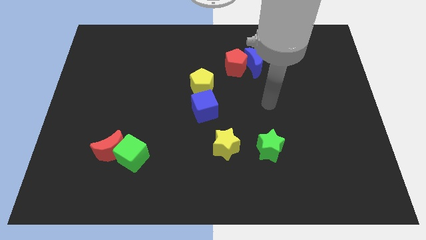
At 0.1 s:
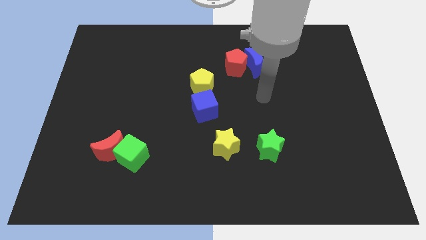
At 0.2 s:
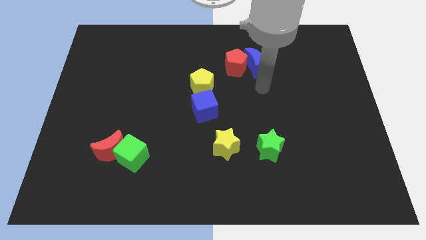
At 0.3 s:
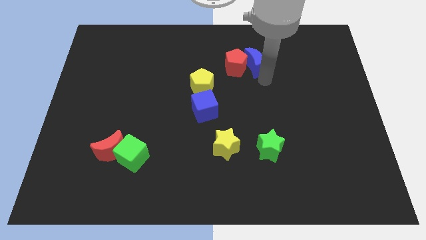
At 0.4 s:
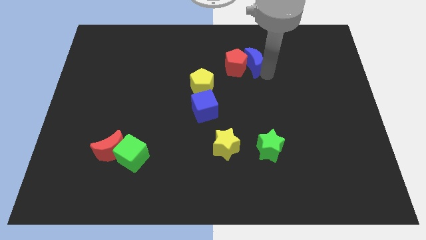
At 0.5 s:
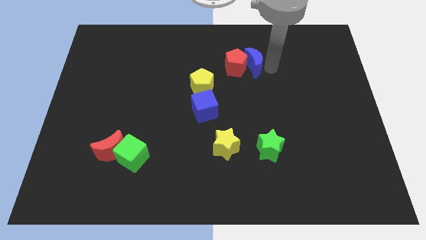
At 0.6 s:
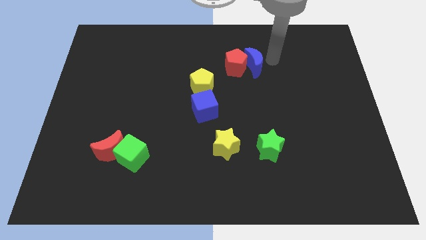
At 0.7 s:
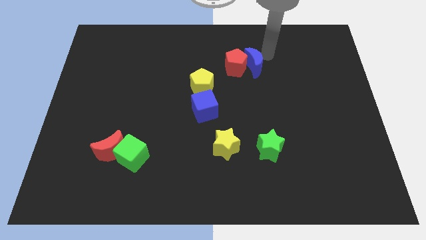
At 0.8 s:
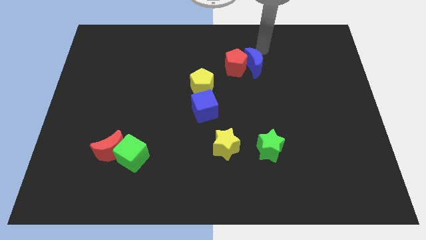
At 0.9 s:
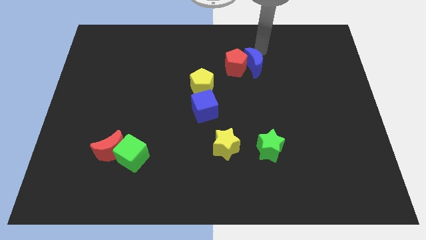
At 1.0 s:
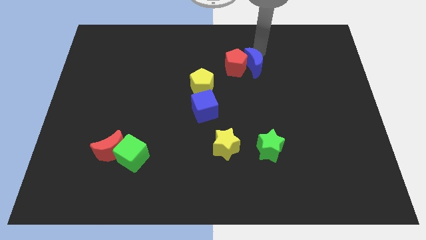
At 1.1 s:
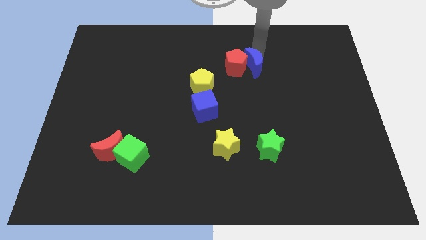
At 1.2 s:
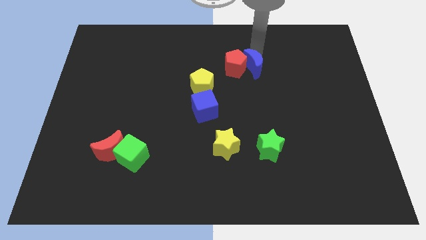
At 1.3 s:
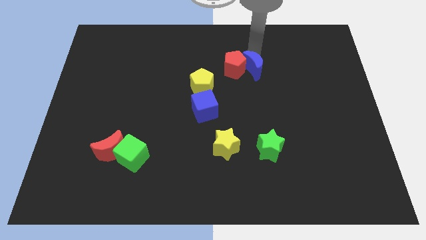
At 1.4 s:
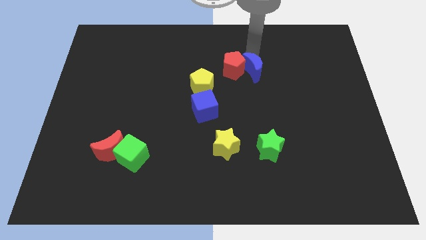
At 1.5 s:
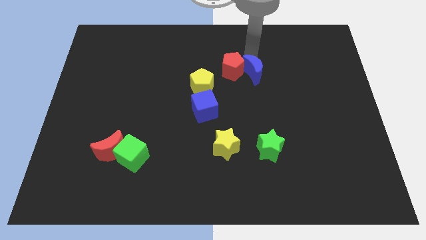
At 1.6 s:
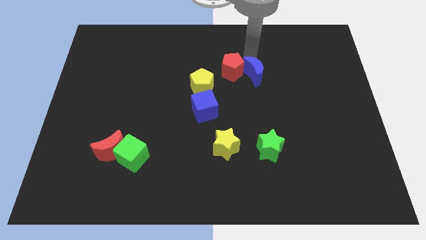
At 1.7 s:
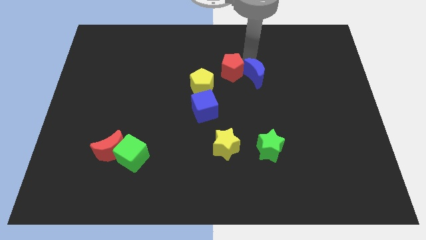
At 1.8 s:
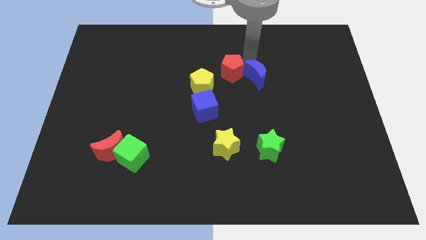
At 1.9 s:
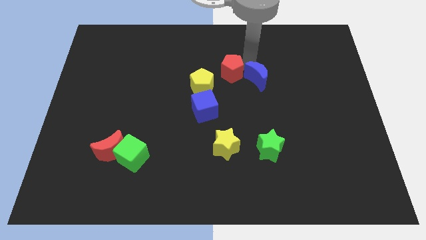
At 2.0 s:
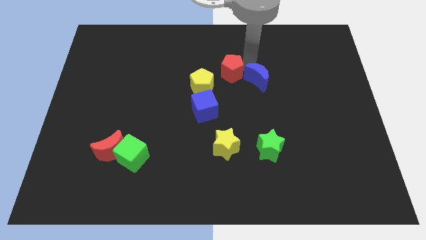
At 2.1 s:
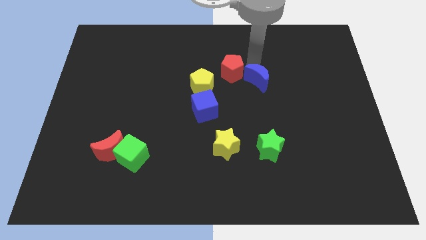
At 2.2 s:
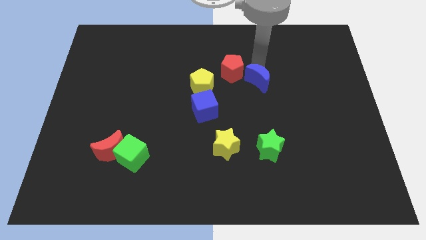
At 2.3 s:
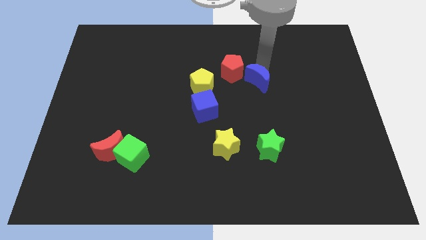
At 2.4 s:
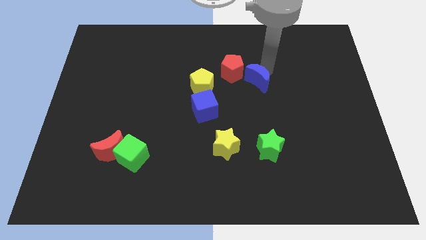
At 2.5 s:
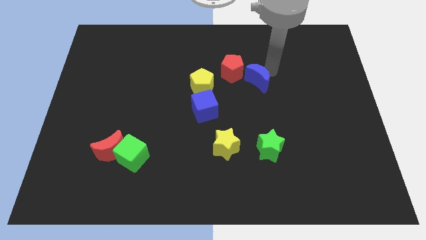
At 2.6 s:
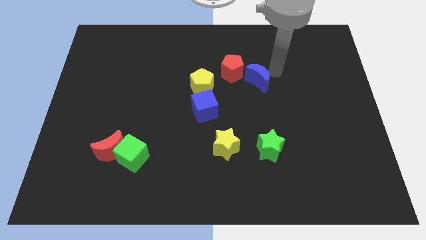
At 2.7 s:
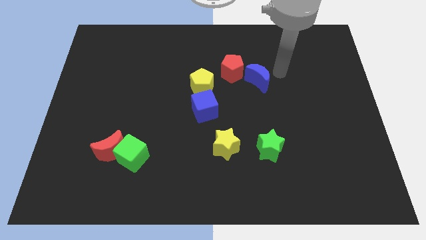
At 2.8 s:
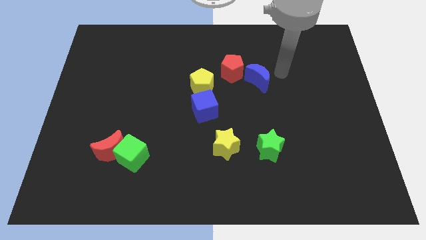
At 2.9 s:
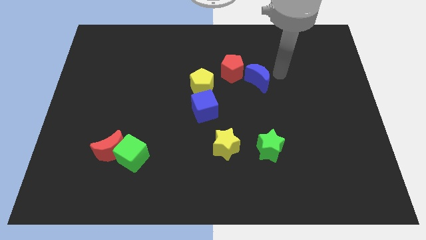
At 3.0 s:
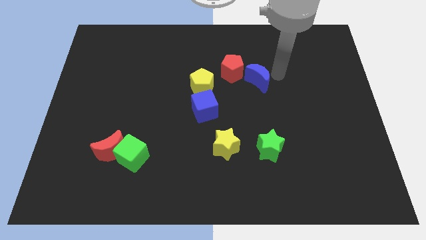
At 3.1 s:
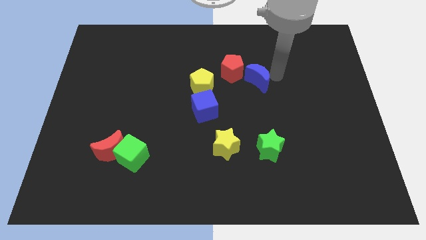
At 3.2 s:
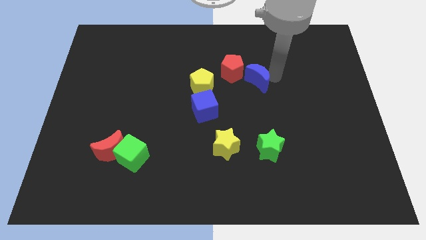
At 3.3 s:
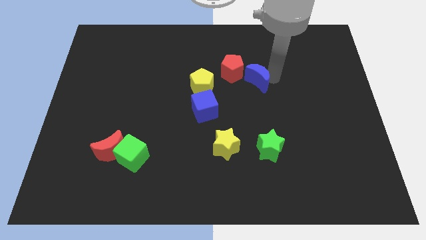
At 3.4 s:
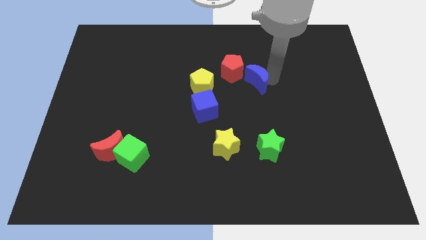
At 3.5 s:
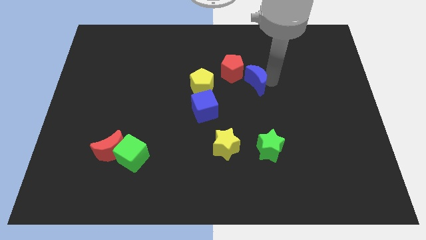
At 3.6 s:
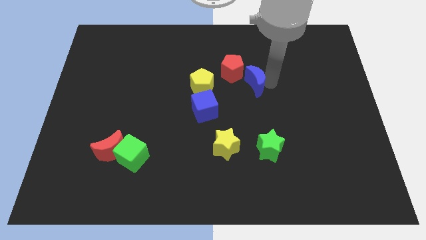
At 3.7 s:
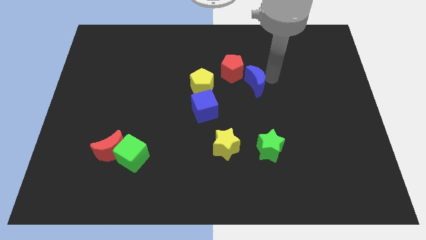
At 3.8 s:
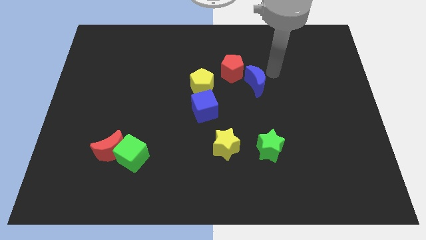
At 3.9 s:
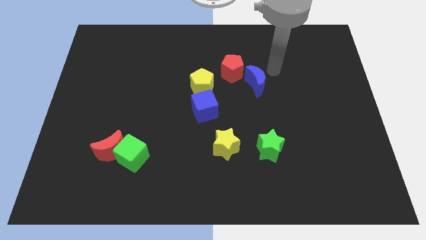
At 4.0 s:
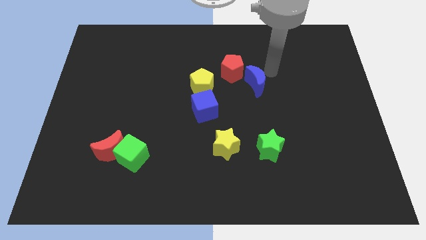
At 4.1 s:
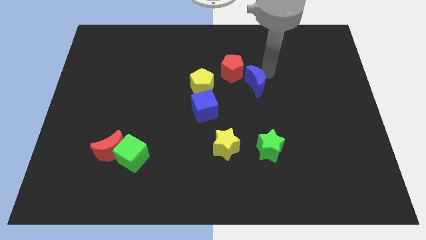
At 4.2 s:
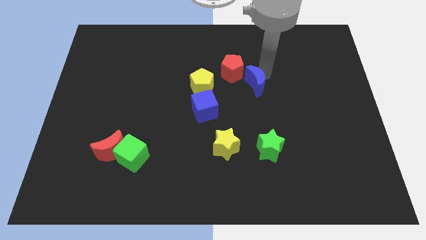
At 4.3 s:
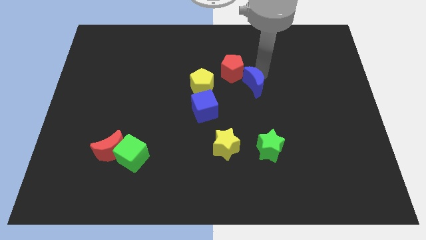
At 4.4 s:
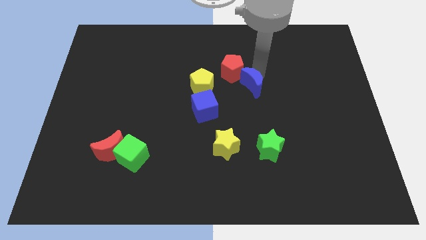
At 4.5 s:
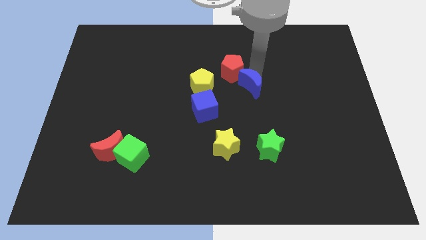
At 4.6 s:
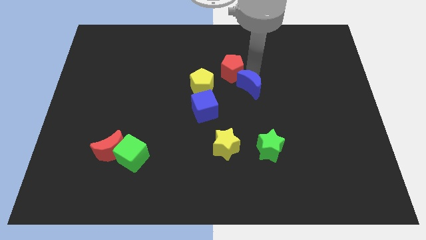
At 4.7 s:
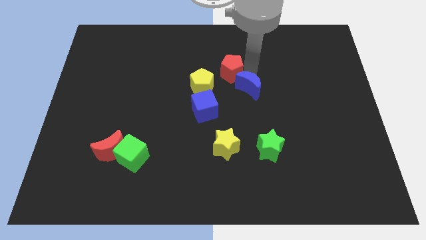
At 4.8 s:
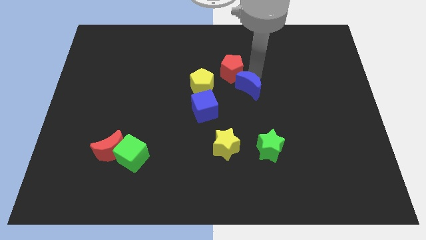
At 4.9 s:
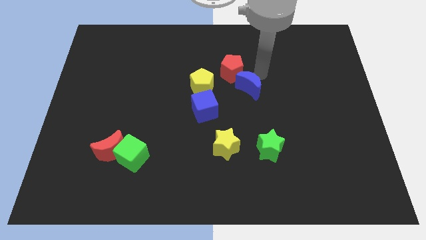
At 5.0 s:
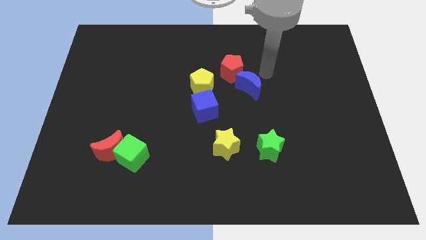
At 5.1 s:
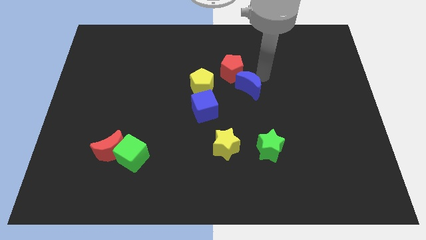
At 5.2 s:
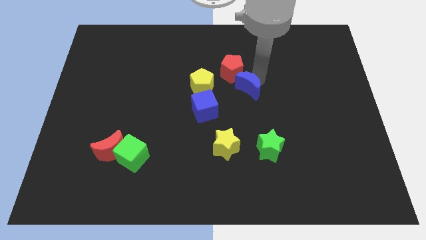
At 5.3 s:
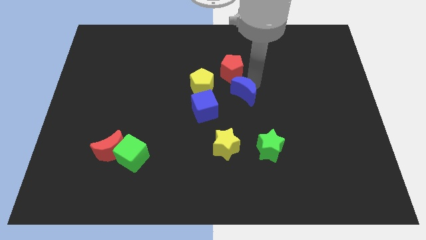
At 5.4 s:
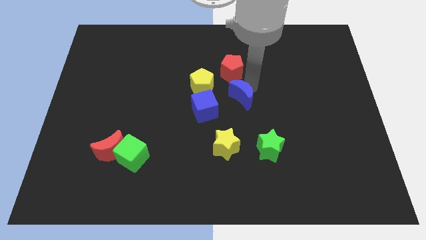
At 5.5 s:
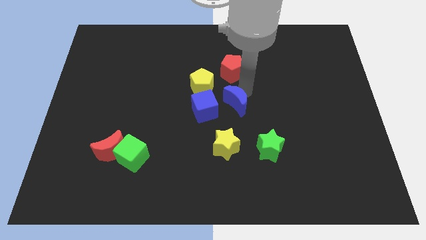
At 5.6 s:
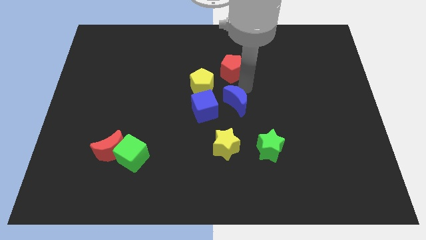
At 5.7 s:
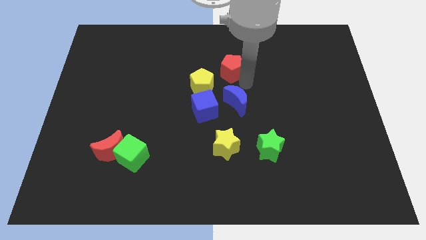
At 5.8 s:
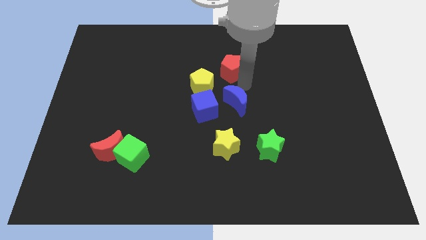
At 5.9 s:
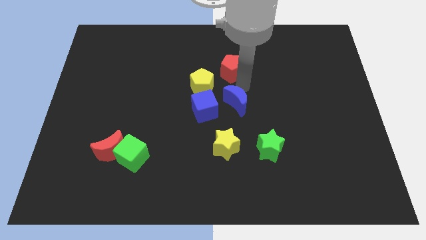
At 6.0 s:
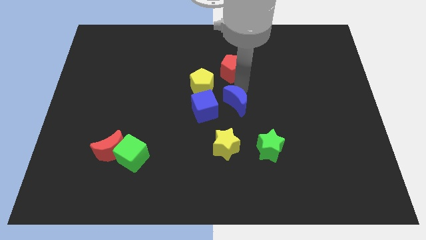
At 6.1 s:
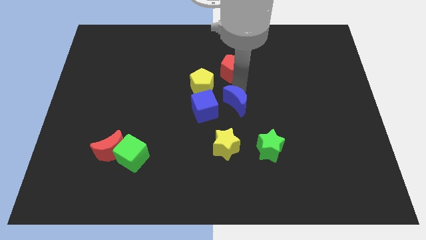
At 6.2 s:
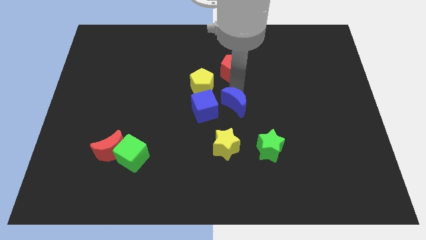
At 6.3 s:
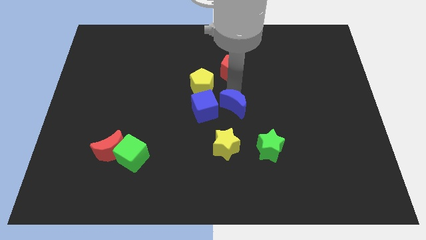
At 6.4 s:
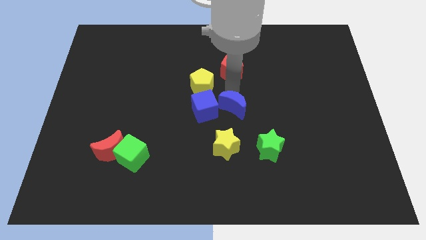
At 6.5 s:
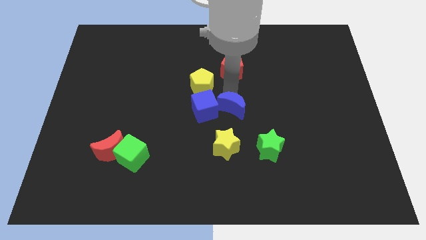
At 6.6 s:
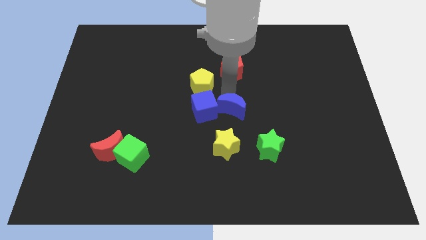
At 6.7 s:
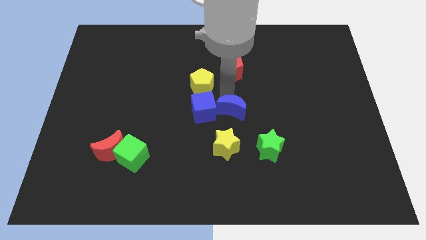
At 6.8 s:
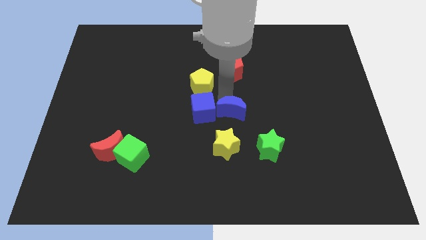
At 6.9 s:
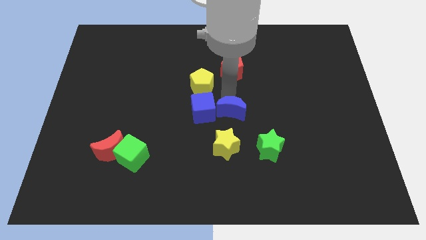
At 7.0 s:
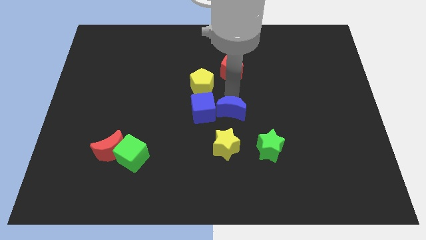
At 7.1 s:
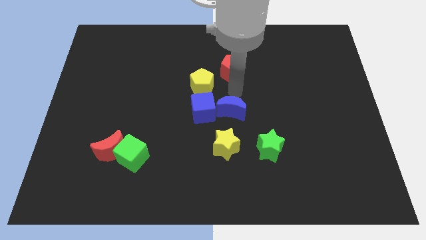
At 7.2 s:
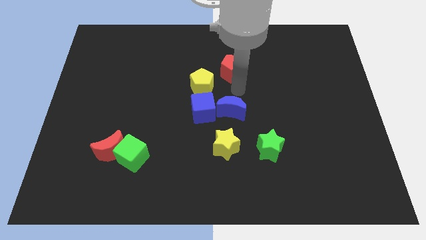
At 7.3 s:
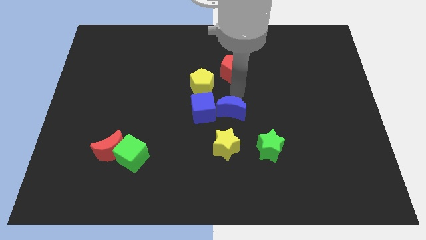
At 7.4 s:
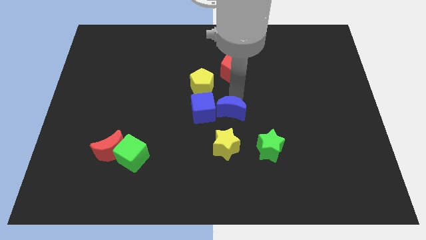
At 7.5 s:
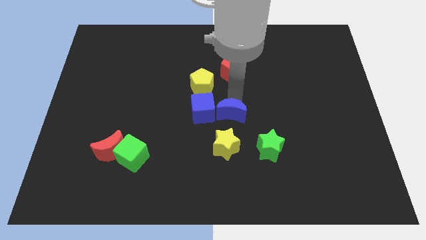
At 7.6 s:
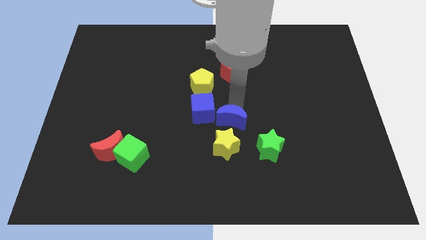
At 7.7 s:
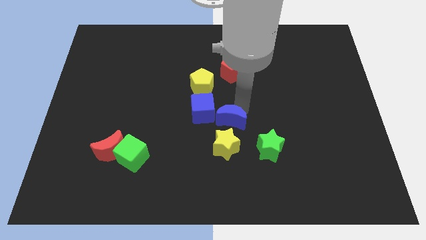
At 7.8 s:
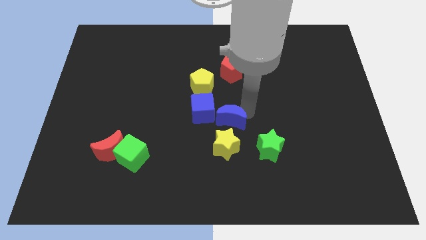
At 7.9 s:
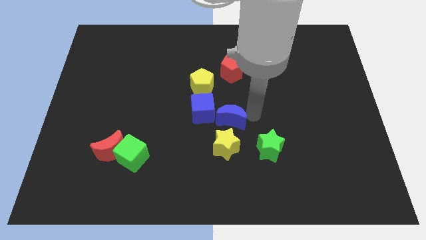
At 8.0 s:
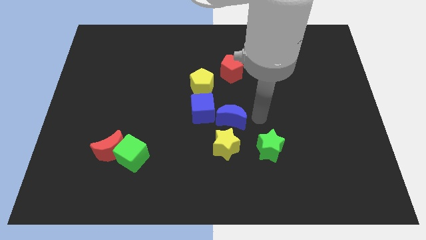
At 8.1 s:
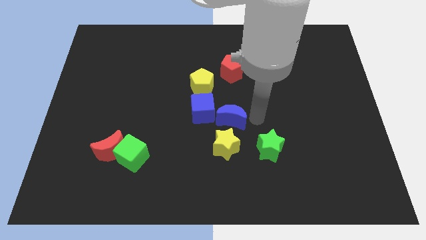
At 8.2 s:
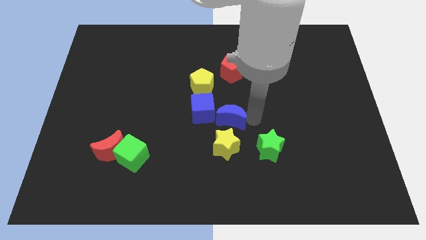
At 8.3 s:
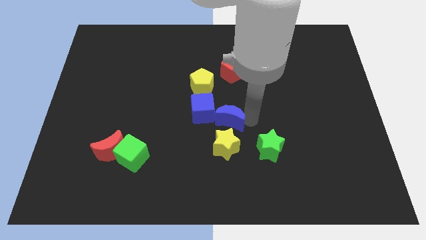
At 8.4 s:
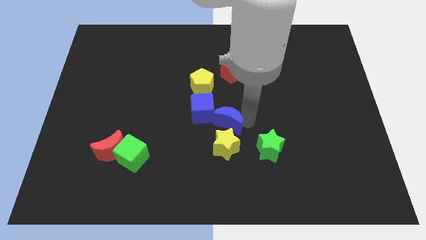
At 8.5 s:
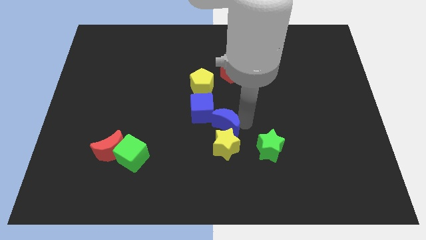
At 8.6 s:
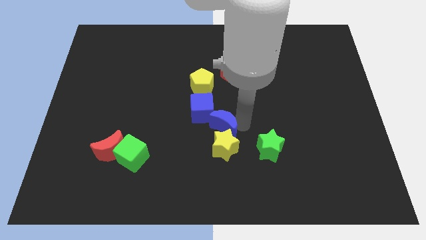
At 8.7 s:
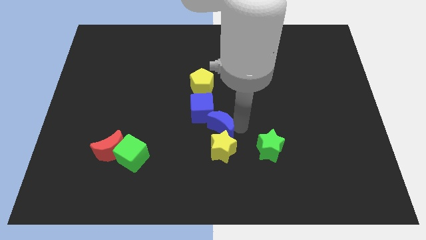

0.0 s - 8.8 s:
put the blue moon to the bottom of the yellow pentagon
